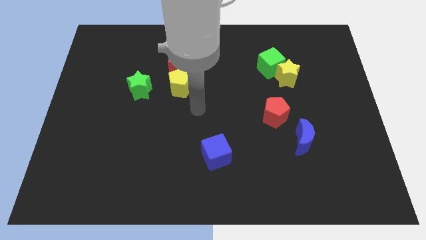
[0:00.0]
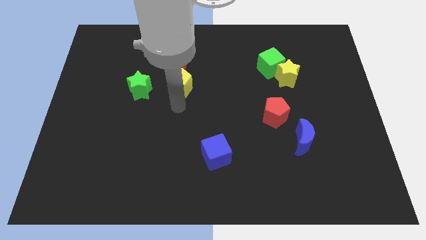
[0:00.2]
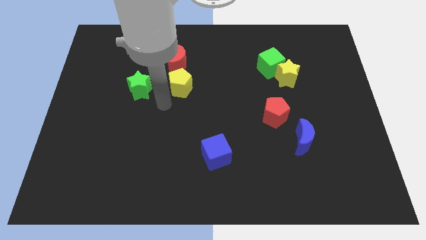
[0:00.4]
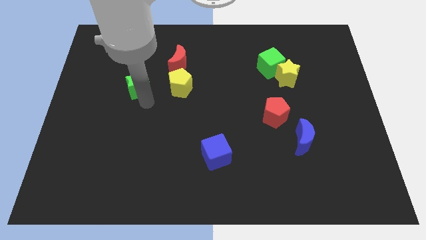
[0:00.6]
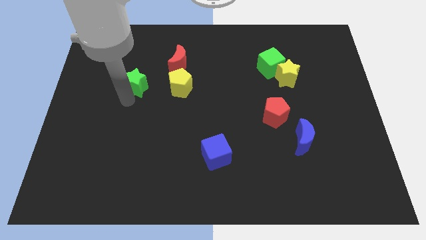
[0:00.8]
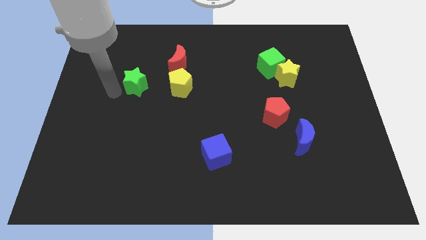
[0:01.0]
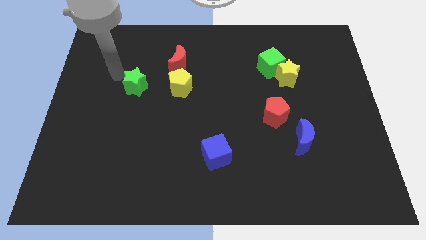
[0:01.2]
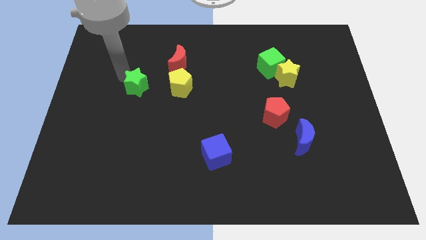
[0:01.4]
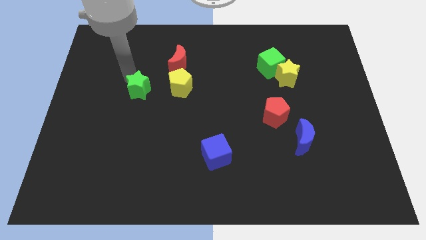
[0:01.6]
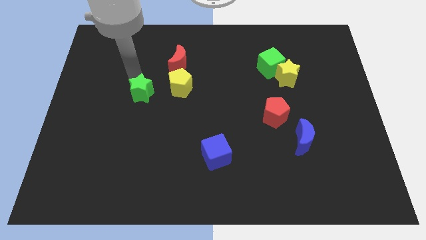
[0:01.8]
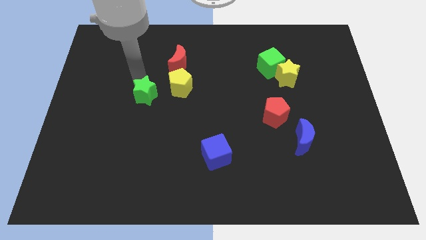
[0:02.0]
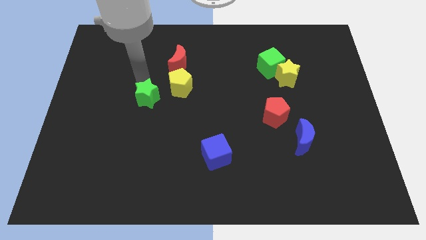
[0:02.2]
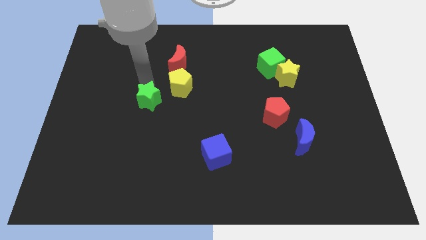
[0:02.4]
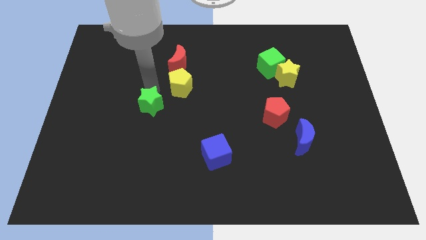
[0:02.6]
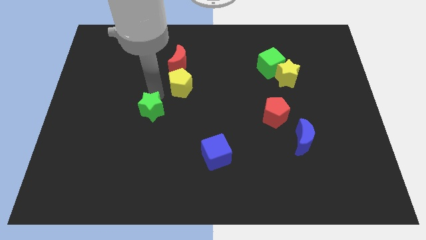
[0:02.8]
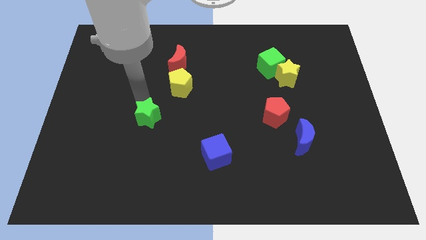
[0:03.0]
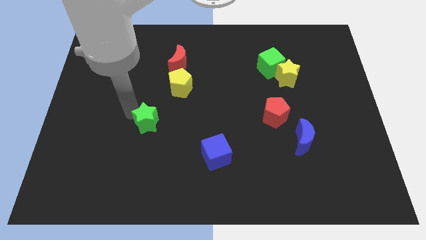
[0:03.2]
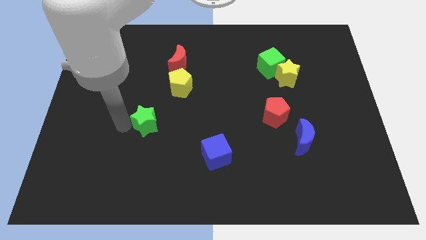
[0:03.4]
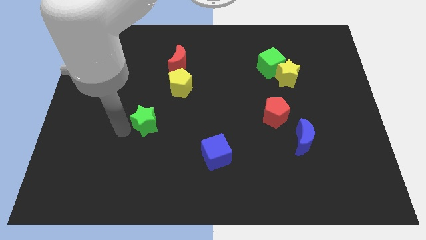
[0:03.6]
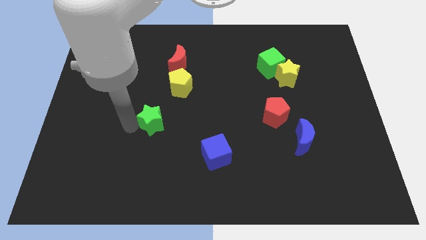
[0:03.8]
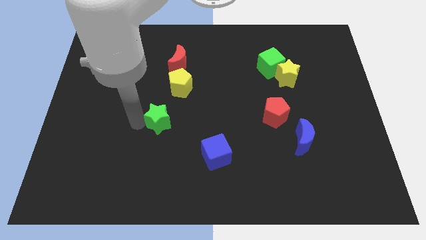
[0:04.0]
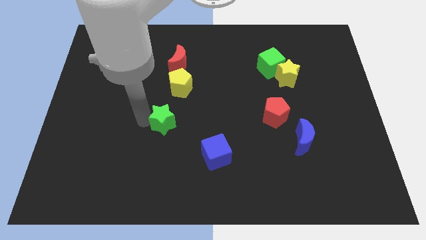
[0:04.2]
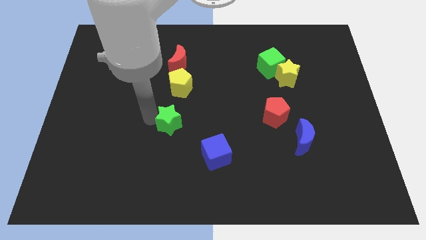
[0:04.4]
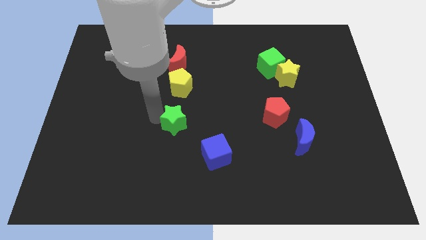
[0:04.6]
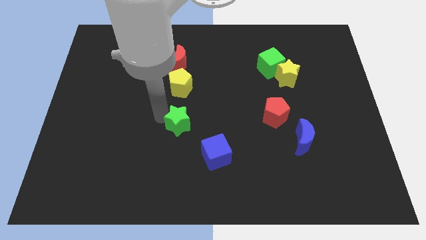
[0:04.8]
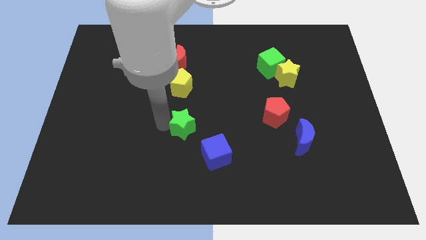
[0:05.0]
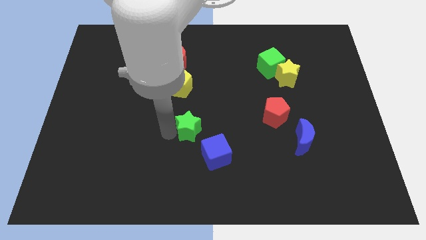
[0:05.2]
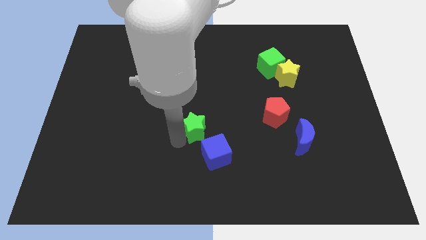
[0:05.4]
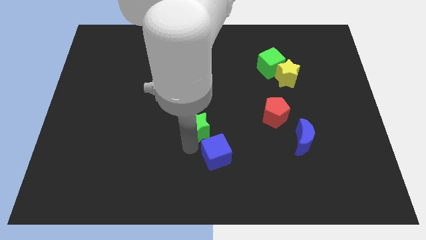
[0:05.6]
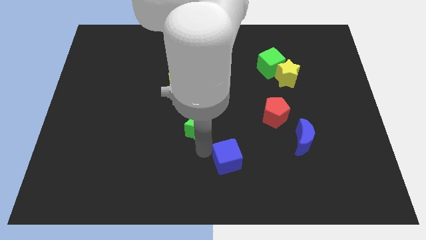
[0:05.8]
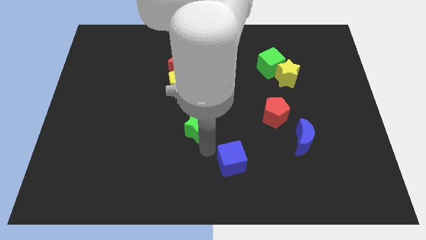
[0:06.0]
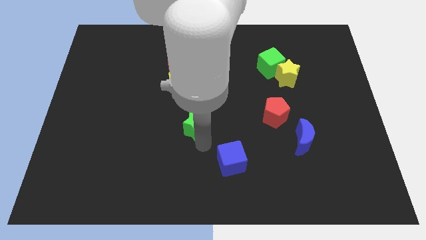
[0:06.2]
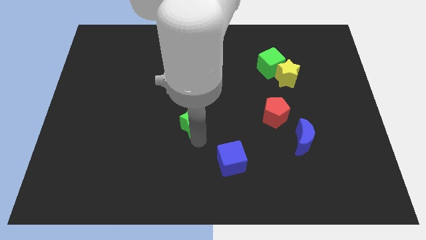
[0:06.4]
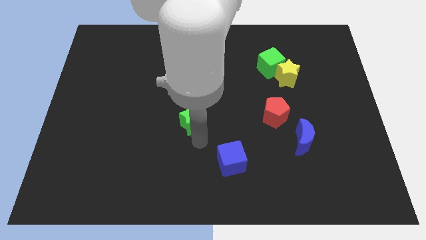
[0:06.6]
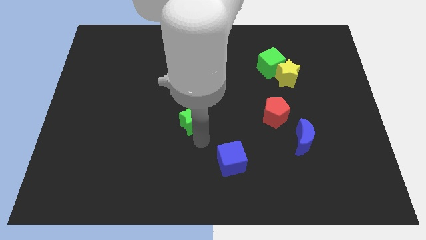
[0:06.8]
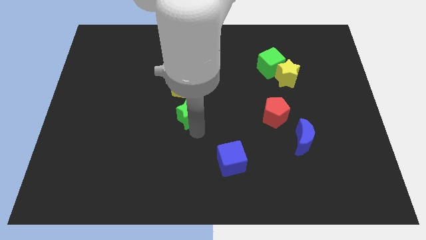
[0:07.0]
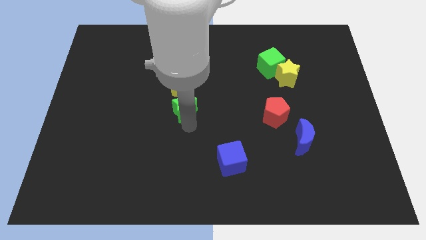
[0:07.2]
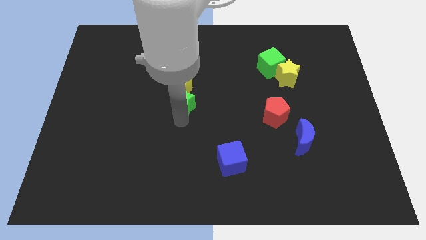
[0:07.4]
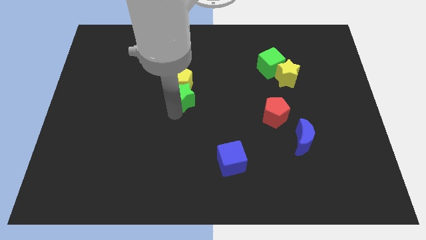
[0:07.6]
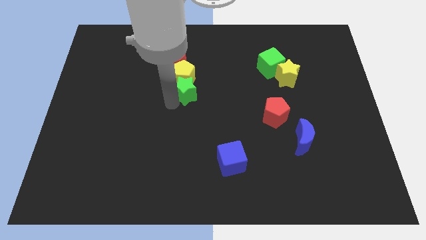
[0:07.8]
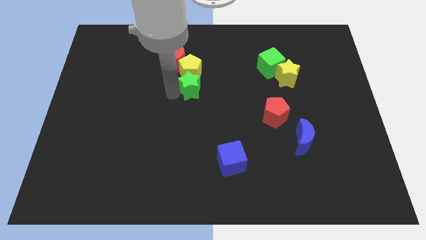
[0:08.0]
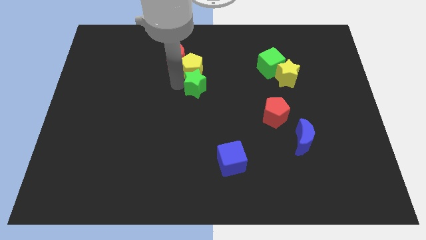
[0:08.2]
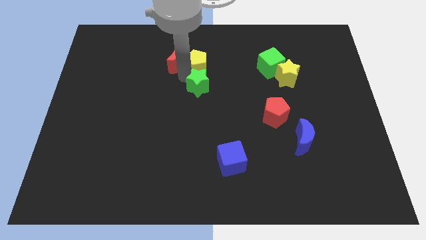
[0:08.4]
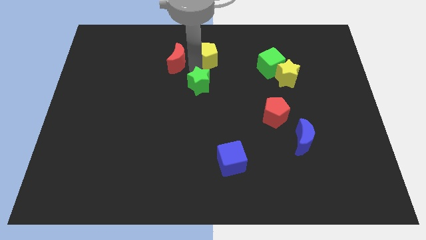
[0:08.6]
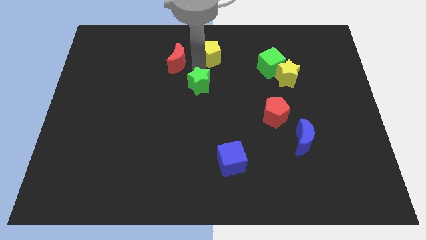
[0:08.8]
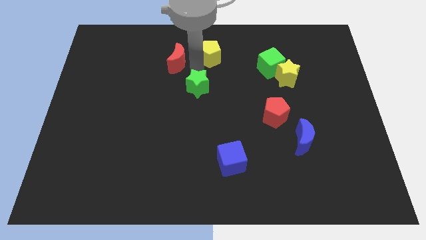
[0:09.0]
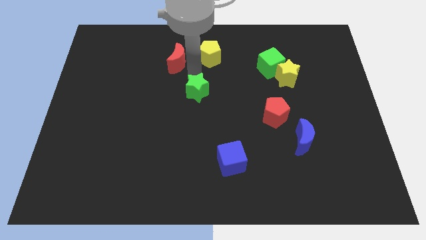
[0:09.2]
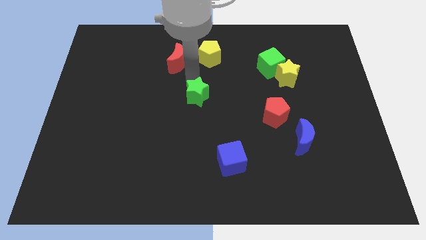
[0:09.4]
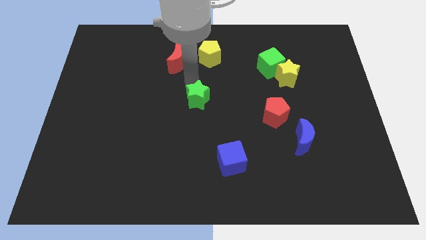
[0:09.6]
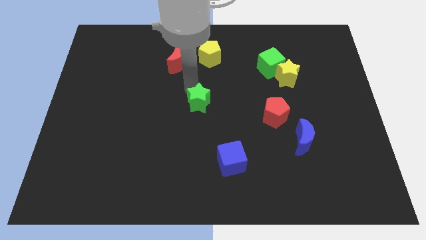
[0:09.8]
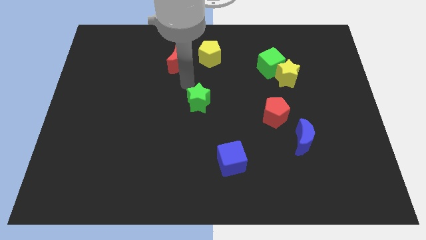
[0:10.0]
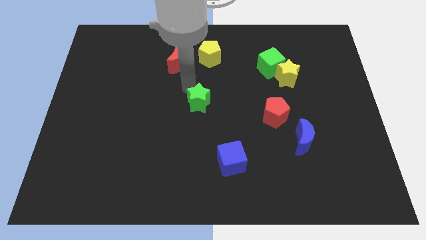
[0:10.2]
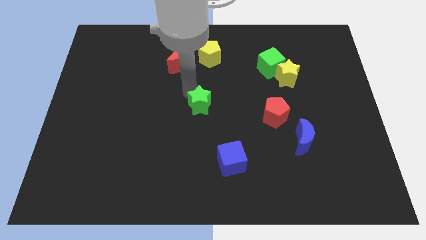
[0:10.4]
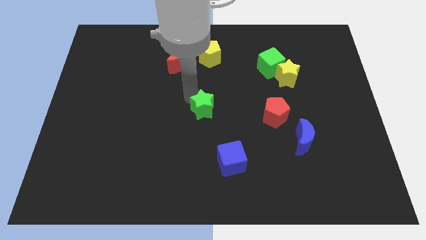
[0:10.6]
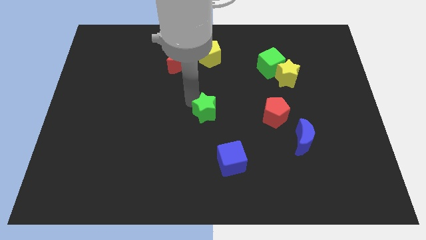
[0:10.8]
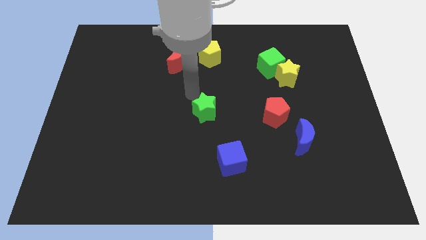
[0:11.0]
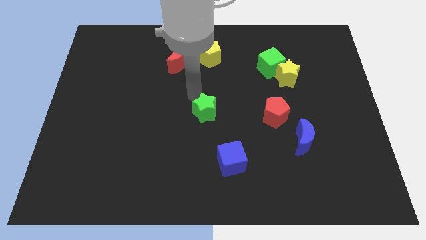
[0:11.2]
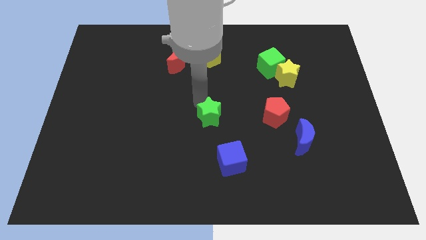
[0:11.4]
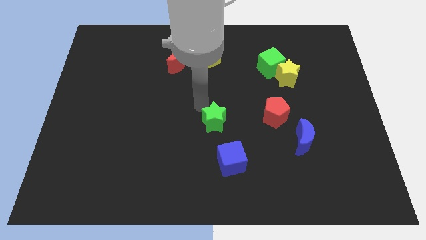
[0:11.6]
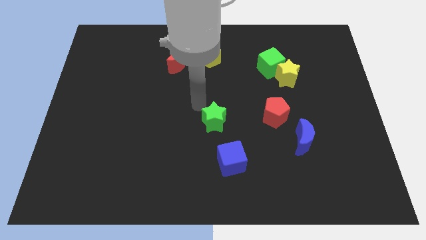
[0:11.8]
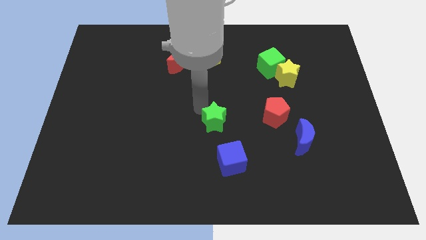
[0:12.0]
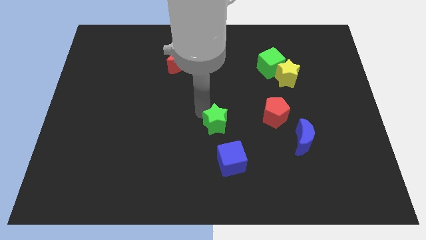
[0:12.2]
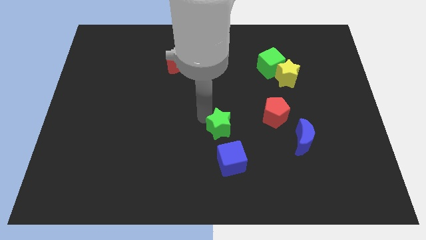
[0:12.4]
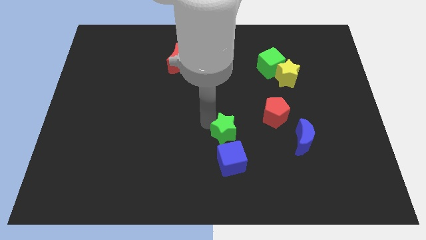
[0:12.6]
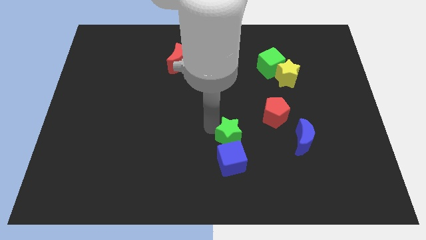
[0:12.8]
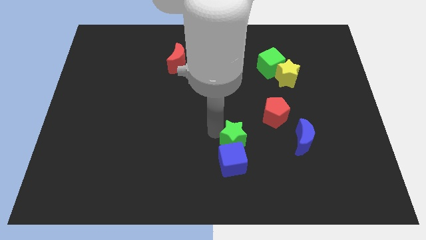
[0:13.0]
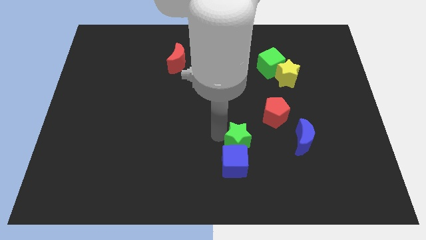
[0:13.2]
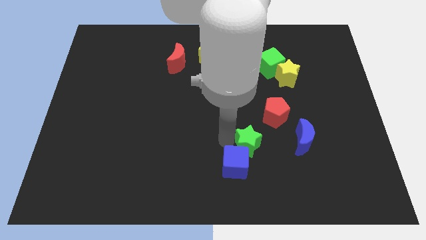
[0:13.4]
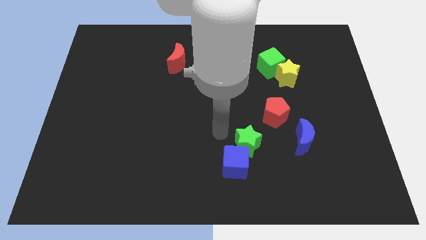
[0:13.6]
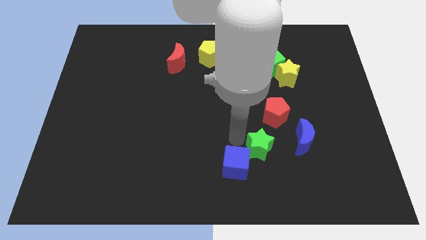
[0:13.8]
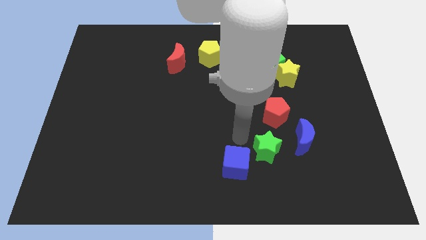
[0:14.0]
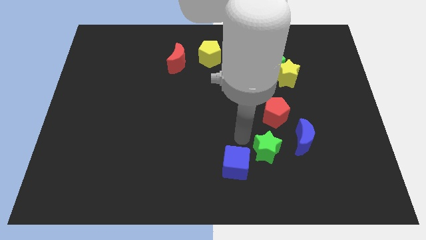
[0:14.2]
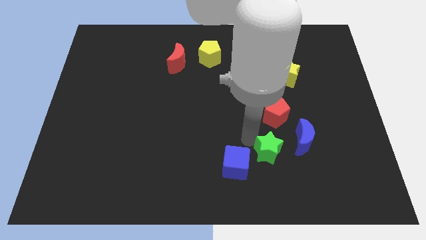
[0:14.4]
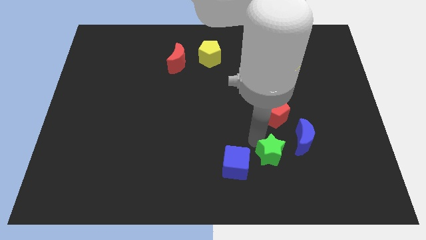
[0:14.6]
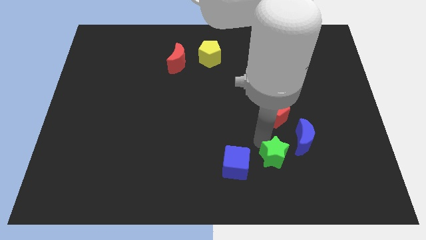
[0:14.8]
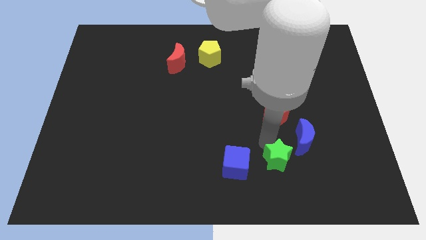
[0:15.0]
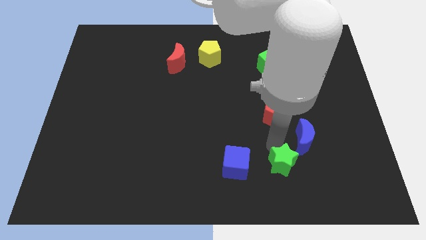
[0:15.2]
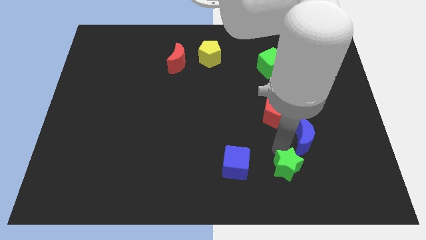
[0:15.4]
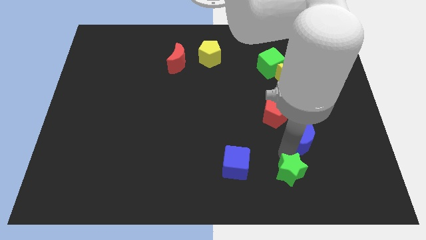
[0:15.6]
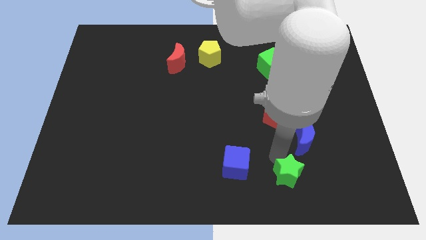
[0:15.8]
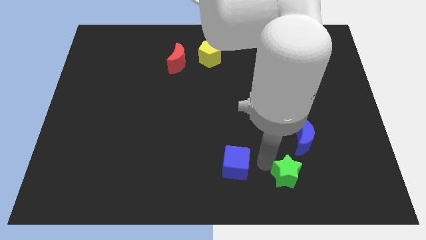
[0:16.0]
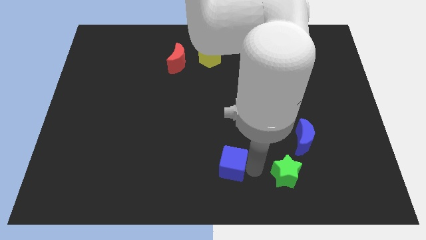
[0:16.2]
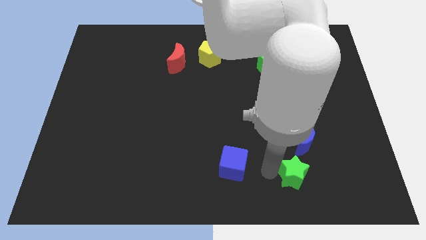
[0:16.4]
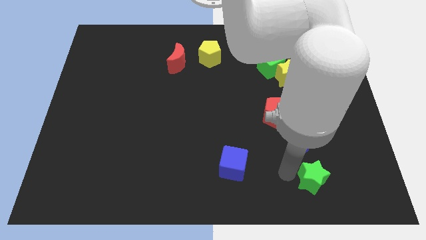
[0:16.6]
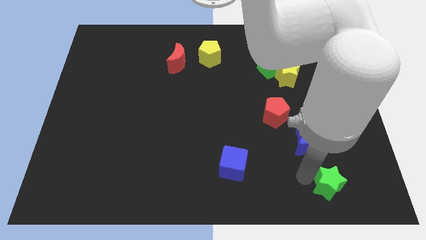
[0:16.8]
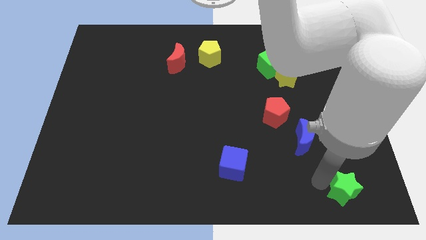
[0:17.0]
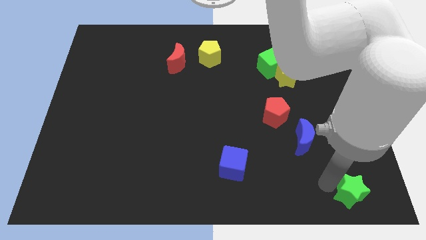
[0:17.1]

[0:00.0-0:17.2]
push the green star to the bottom right of the board
